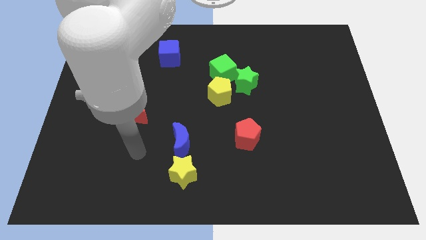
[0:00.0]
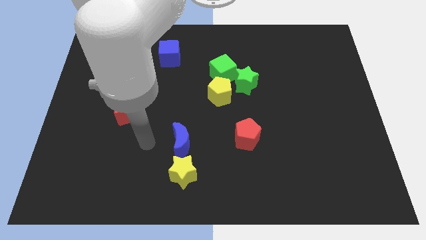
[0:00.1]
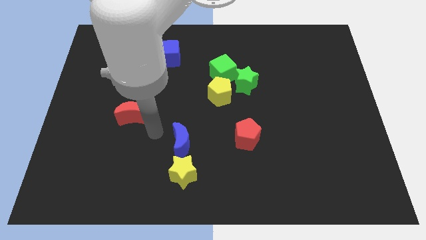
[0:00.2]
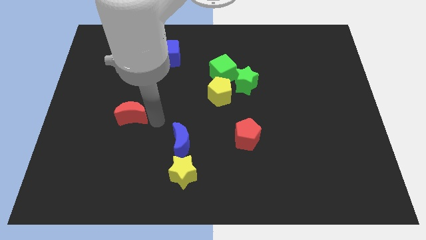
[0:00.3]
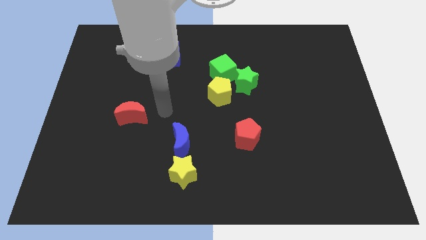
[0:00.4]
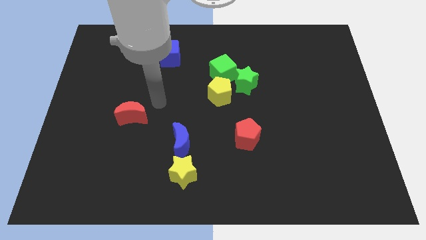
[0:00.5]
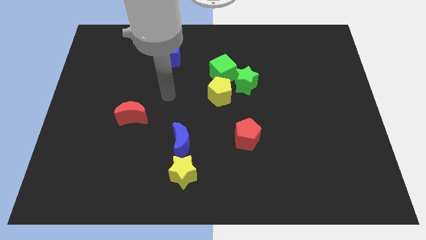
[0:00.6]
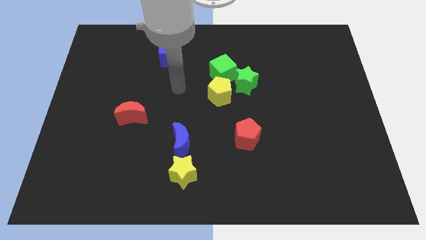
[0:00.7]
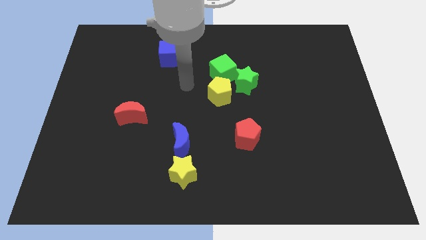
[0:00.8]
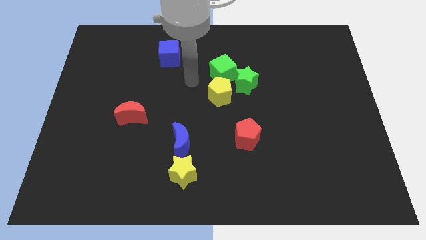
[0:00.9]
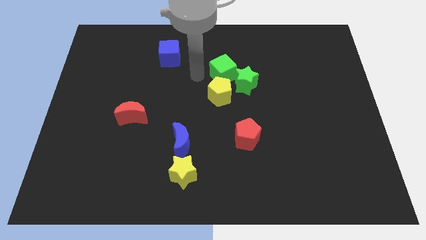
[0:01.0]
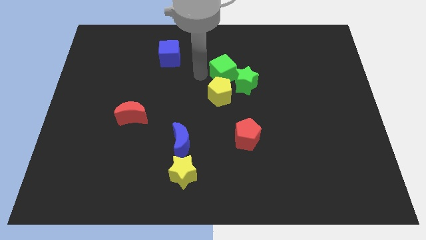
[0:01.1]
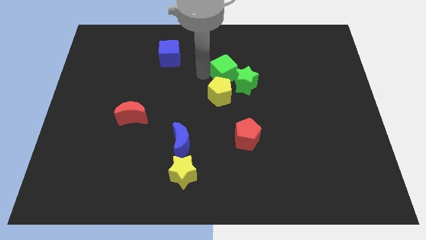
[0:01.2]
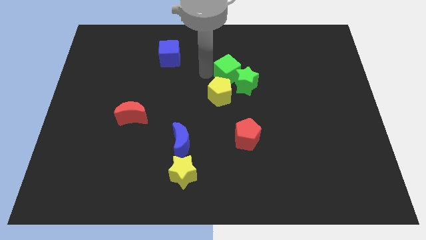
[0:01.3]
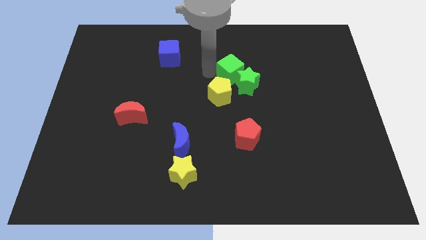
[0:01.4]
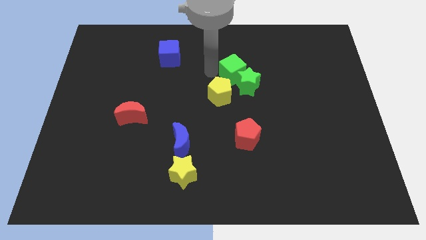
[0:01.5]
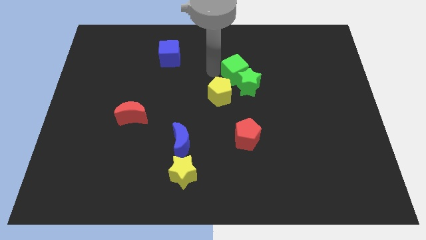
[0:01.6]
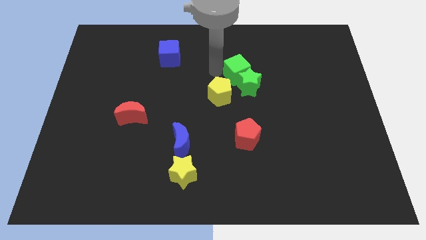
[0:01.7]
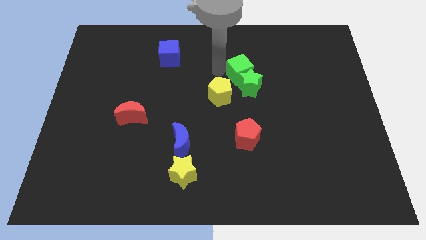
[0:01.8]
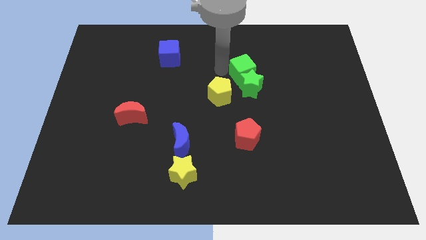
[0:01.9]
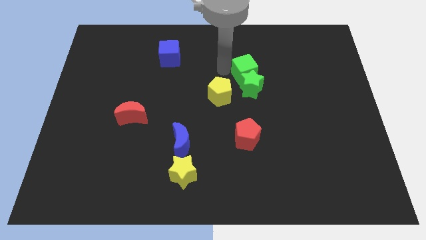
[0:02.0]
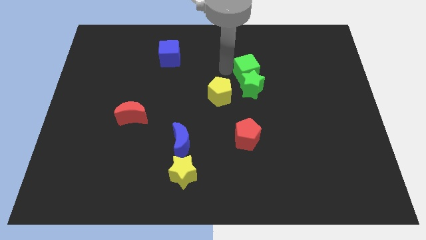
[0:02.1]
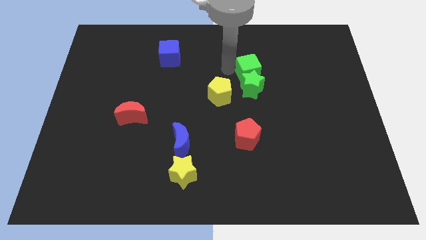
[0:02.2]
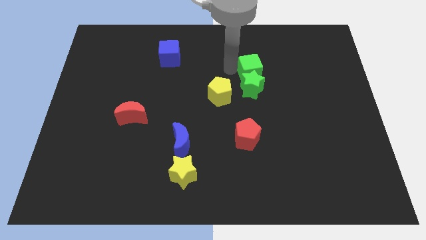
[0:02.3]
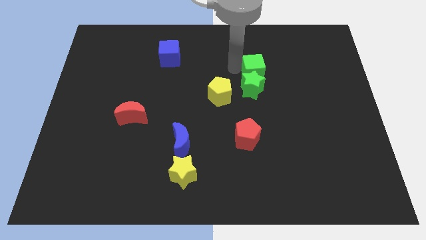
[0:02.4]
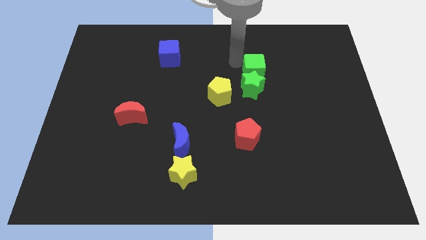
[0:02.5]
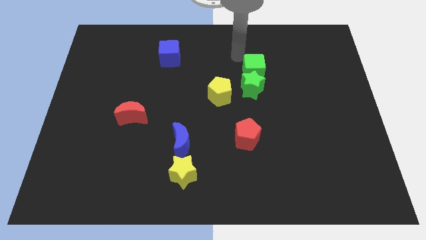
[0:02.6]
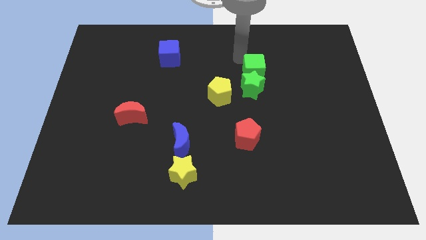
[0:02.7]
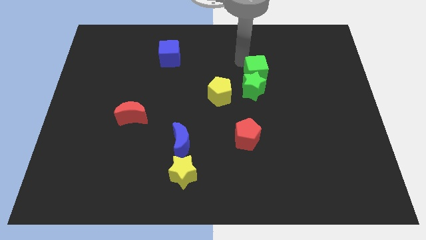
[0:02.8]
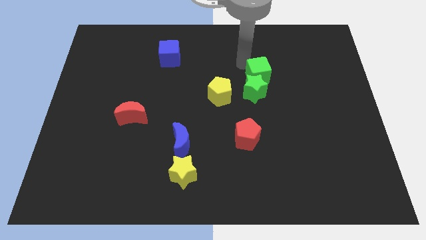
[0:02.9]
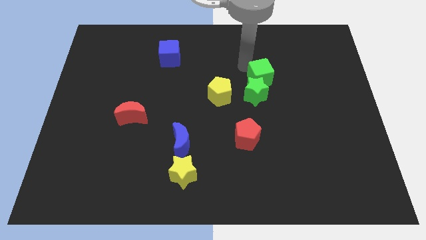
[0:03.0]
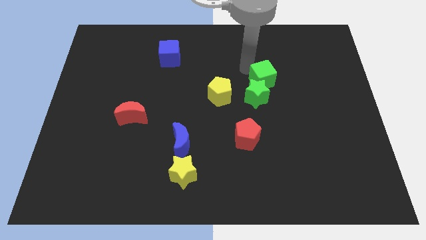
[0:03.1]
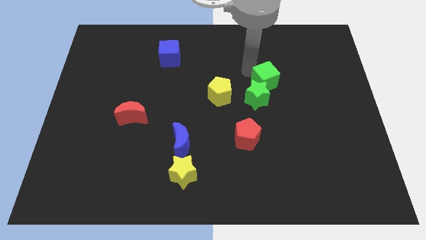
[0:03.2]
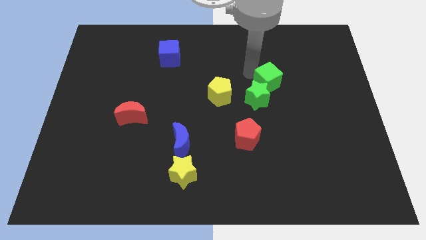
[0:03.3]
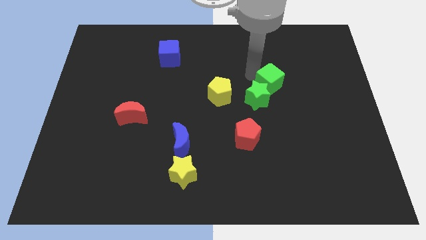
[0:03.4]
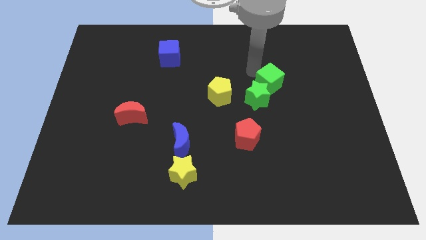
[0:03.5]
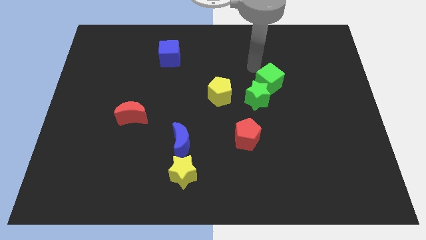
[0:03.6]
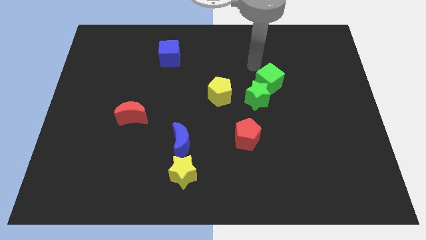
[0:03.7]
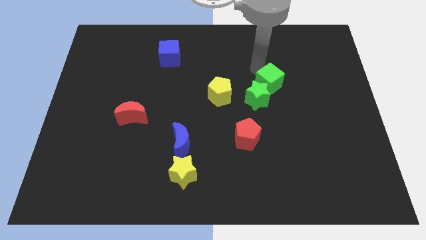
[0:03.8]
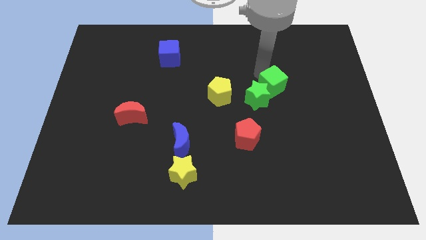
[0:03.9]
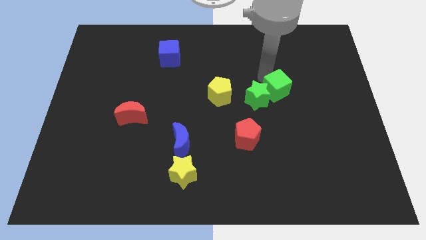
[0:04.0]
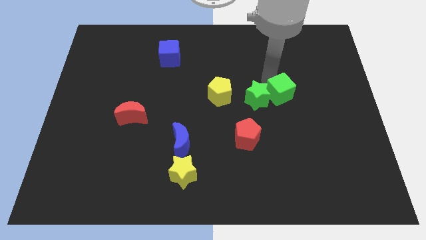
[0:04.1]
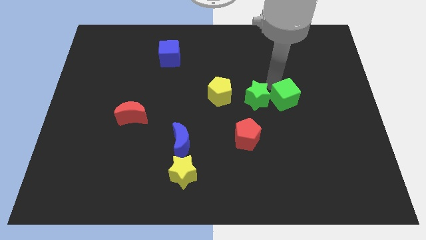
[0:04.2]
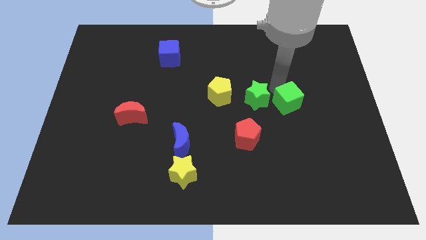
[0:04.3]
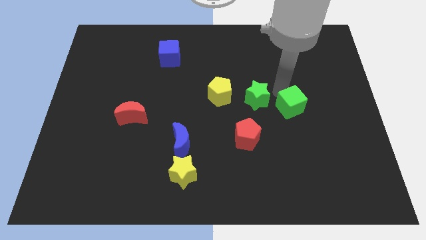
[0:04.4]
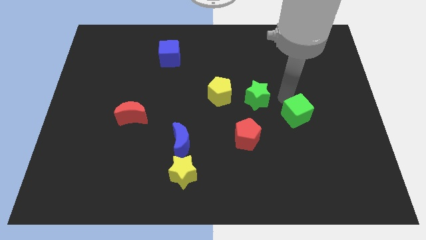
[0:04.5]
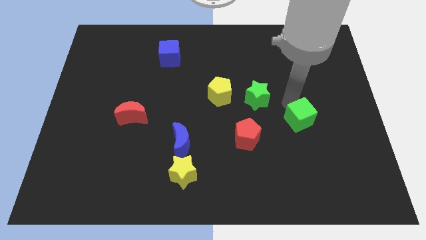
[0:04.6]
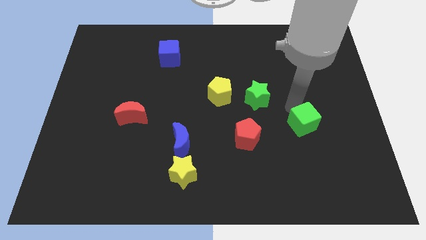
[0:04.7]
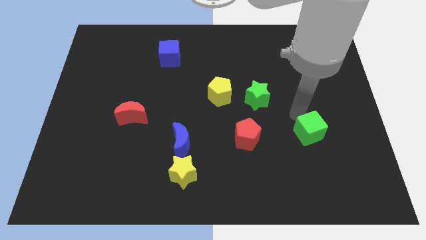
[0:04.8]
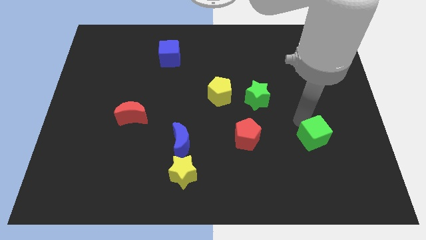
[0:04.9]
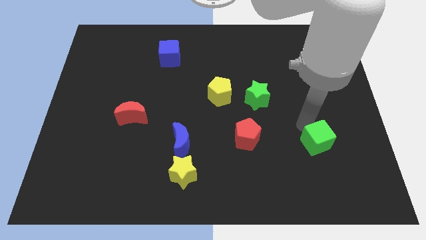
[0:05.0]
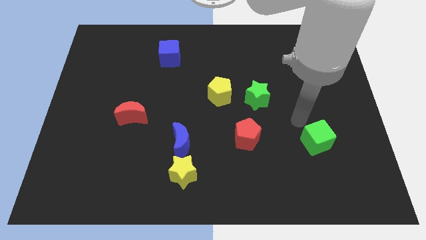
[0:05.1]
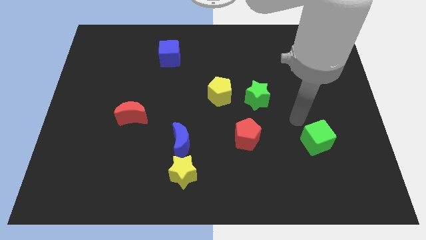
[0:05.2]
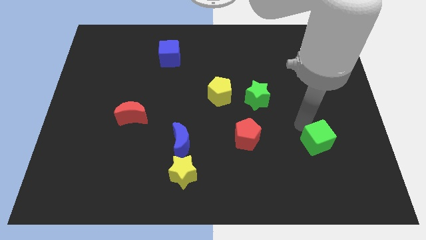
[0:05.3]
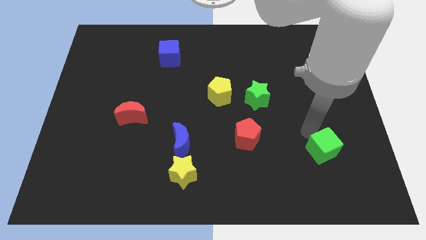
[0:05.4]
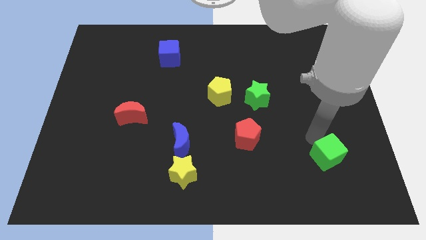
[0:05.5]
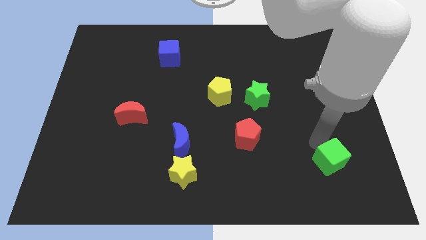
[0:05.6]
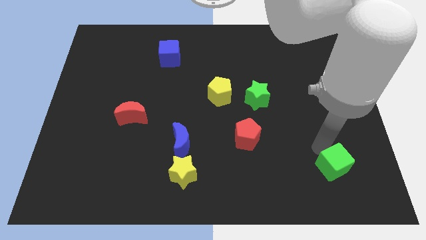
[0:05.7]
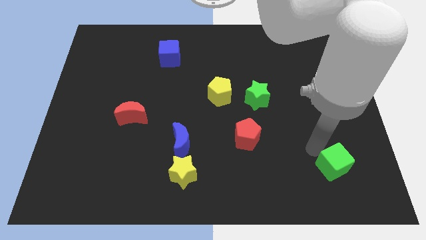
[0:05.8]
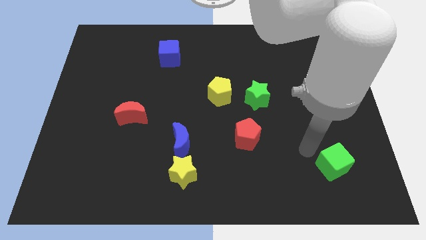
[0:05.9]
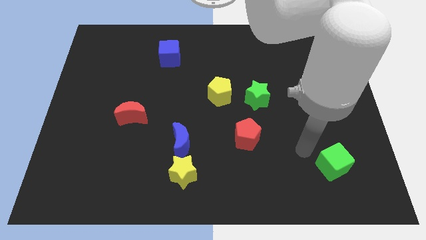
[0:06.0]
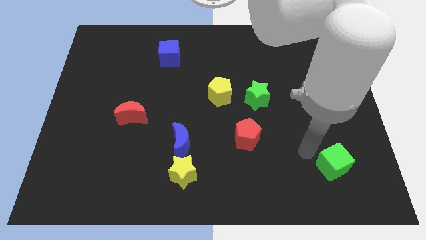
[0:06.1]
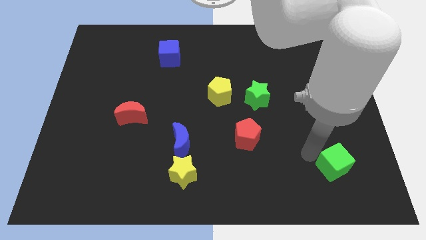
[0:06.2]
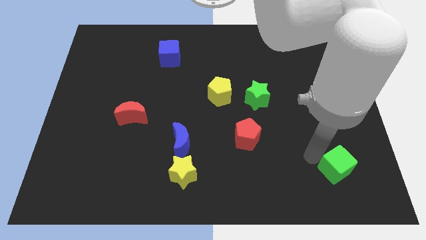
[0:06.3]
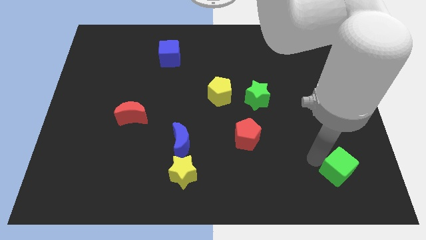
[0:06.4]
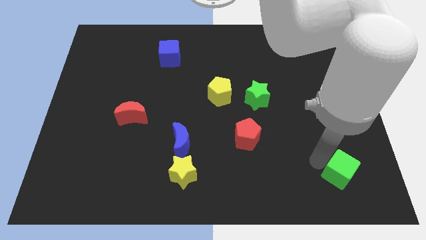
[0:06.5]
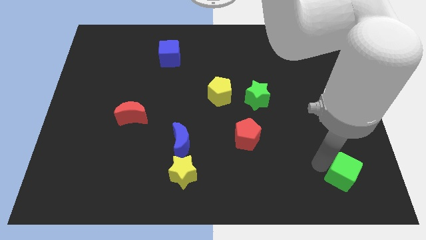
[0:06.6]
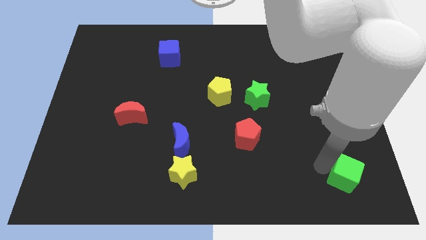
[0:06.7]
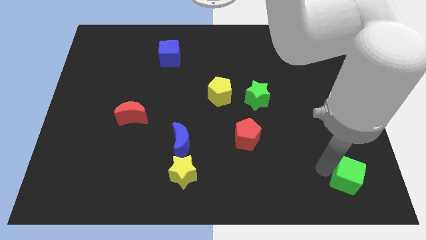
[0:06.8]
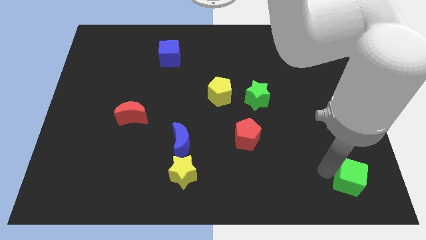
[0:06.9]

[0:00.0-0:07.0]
push the green cube to the lower right corner
